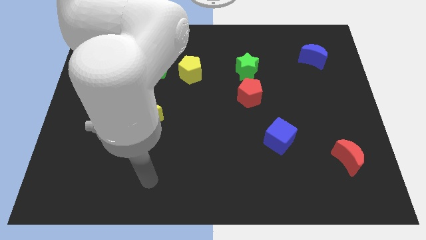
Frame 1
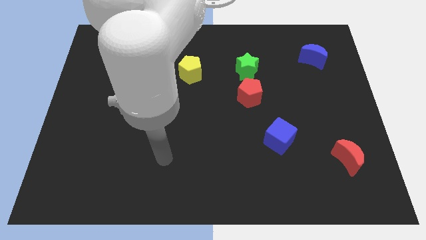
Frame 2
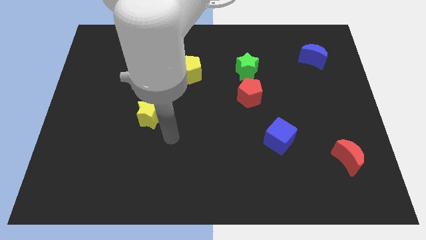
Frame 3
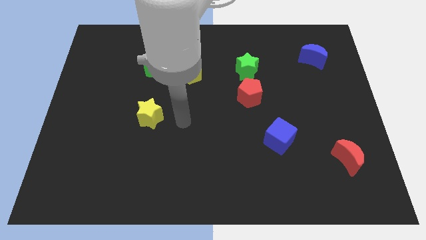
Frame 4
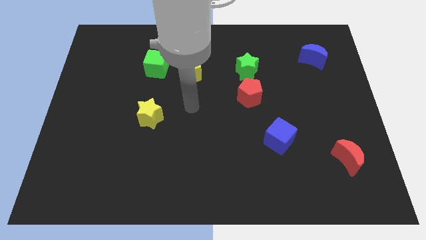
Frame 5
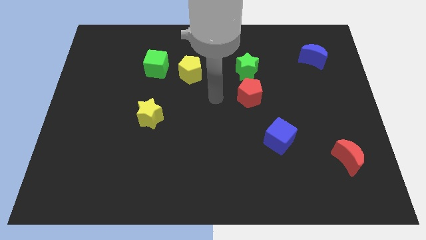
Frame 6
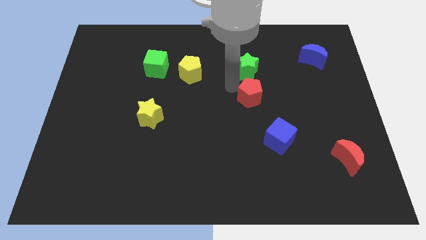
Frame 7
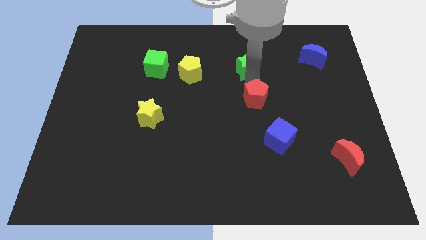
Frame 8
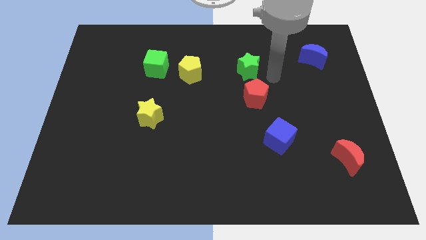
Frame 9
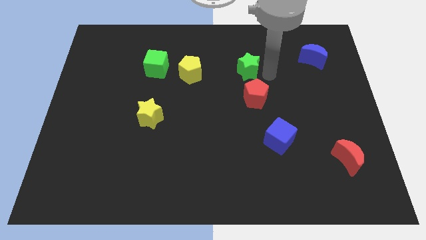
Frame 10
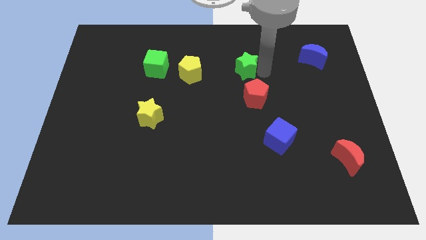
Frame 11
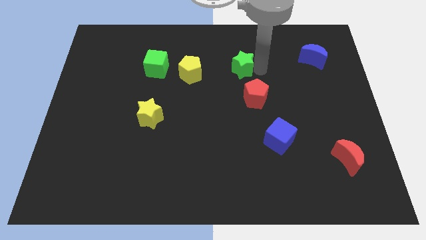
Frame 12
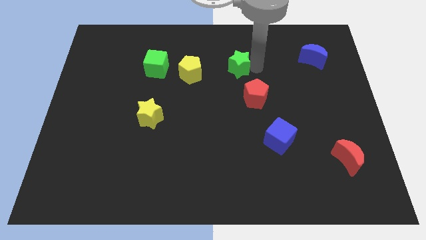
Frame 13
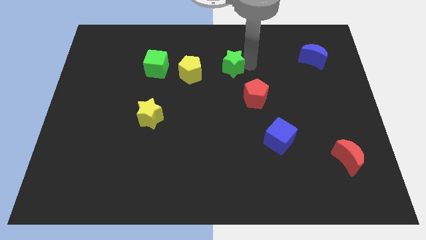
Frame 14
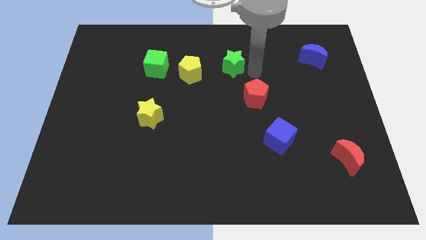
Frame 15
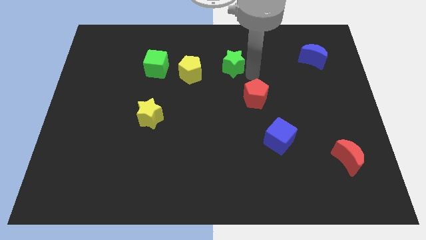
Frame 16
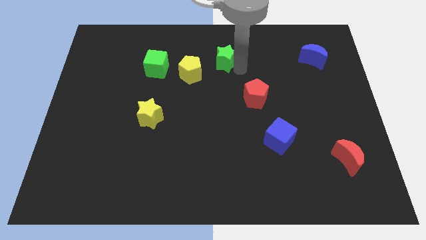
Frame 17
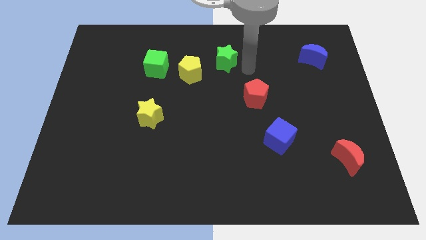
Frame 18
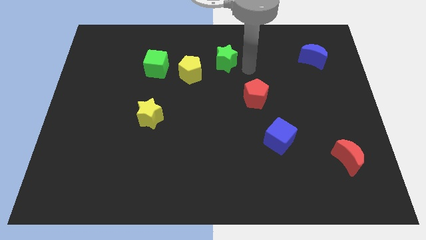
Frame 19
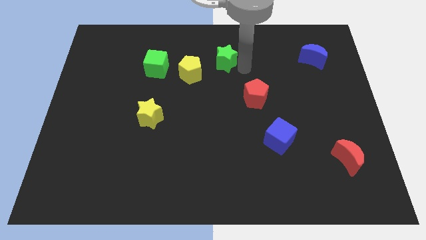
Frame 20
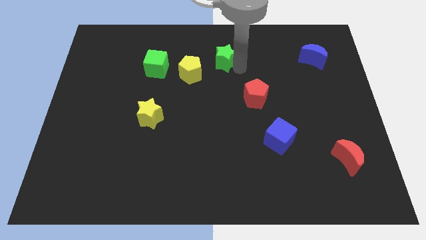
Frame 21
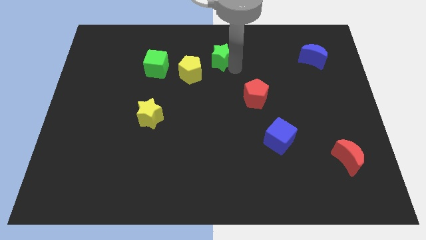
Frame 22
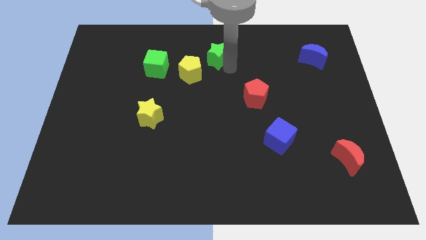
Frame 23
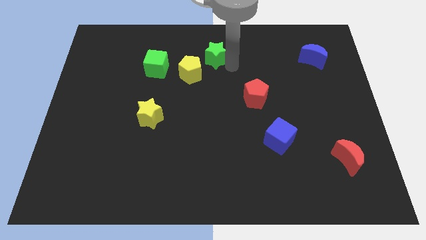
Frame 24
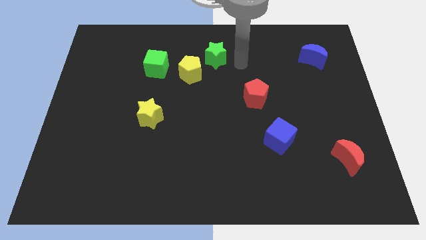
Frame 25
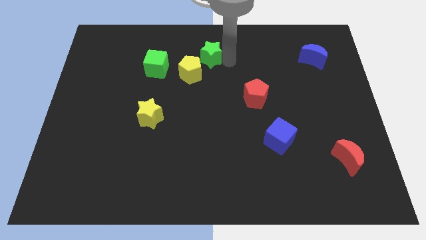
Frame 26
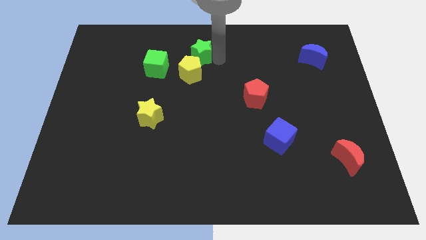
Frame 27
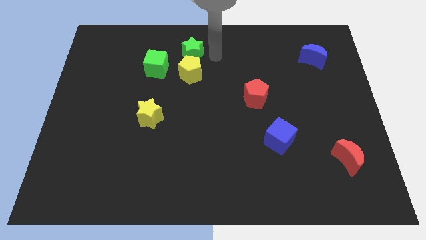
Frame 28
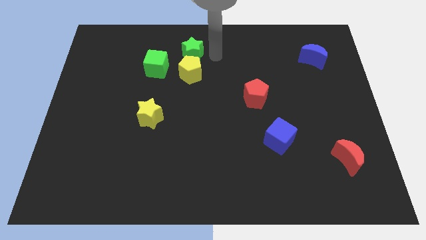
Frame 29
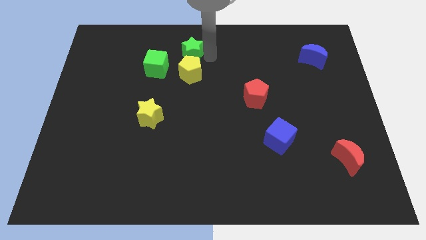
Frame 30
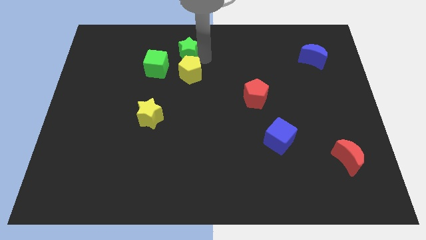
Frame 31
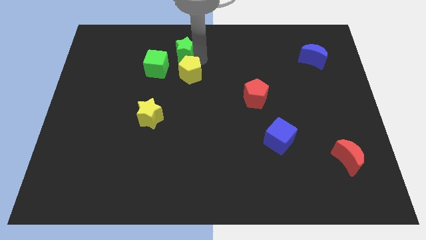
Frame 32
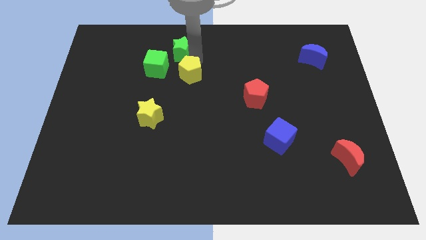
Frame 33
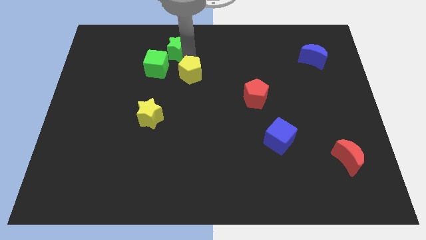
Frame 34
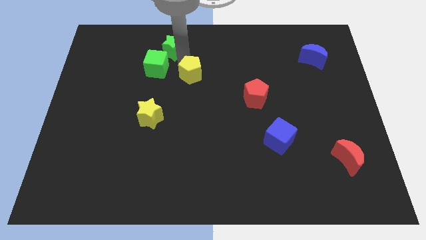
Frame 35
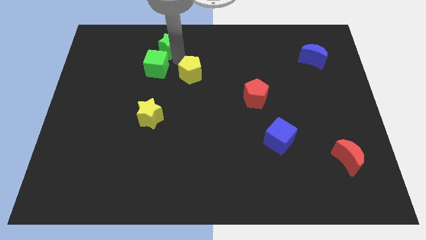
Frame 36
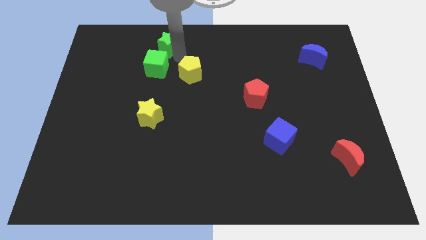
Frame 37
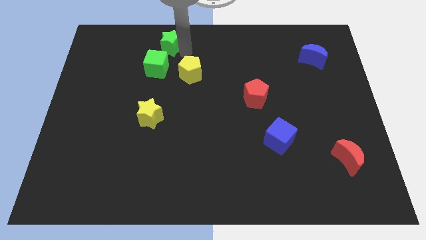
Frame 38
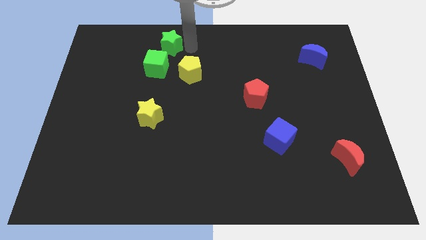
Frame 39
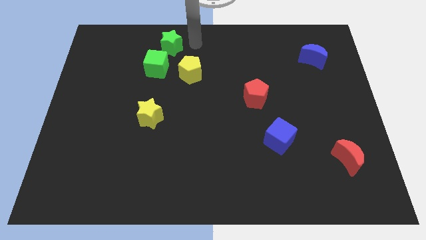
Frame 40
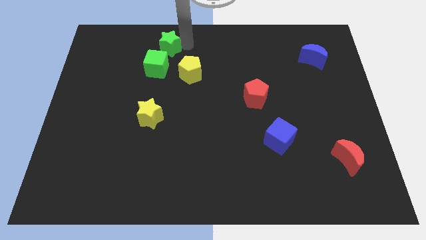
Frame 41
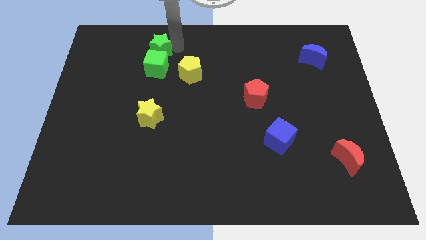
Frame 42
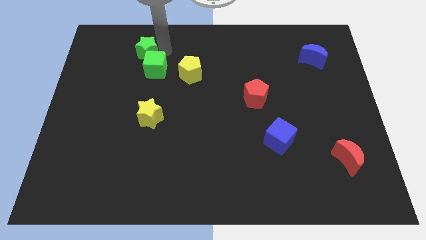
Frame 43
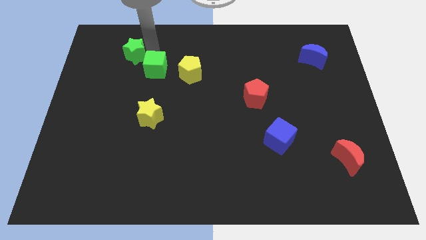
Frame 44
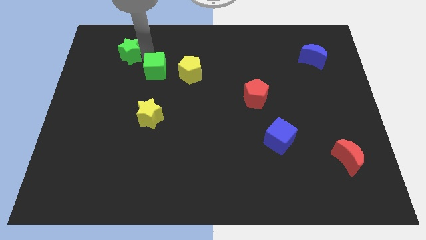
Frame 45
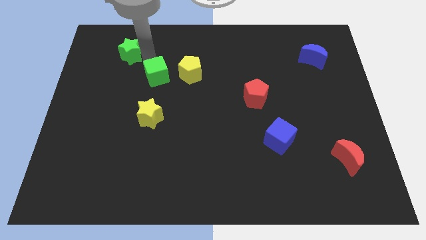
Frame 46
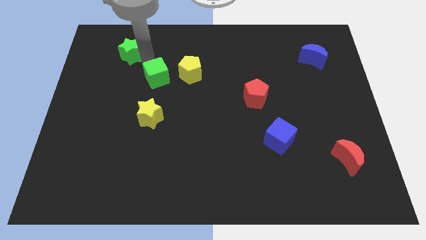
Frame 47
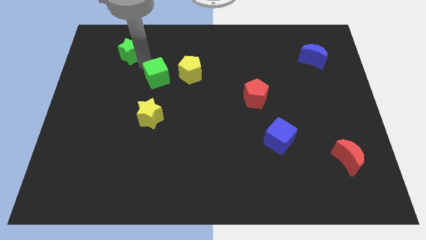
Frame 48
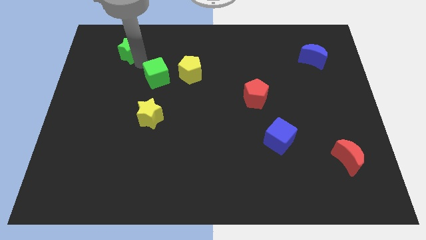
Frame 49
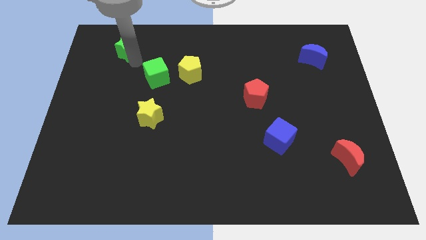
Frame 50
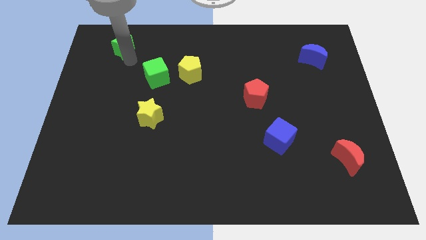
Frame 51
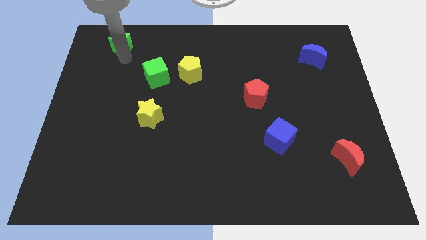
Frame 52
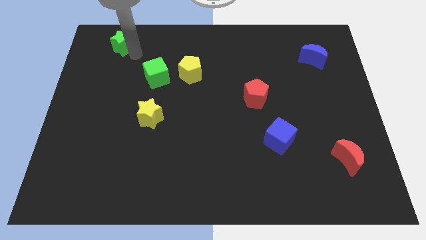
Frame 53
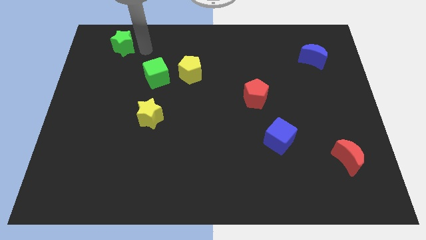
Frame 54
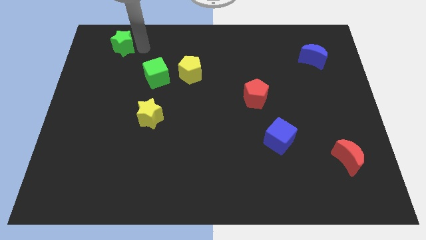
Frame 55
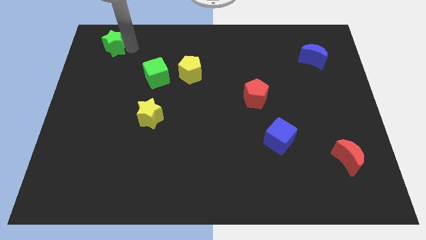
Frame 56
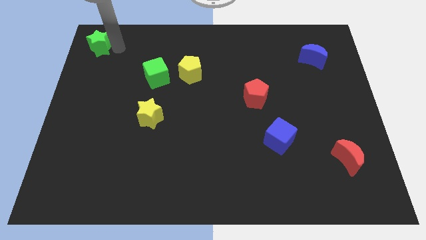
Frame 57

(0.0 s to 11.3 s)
put the green star to the top left corner
